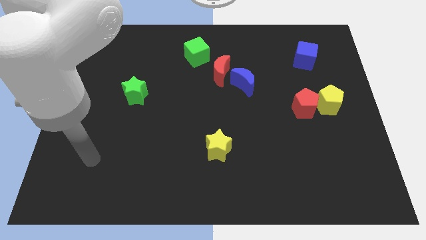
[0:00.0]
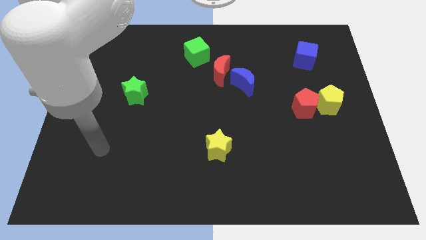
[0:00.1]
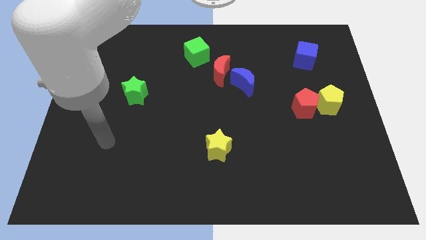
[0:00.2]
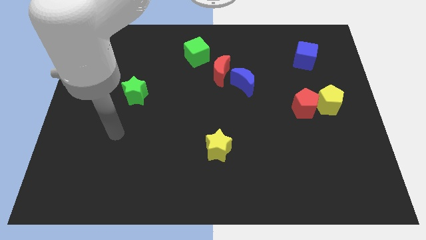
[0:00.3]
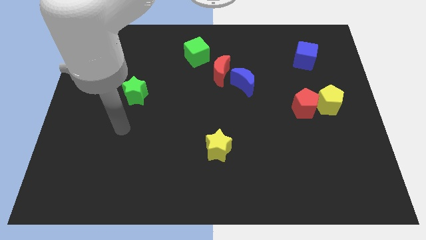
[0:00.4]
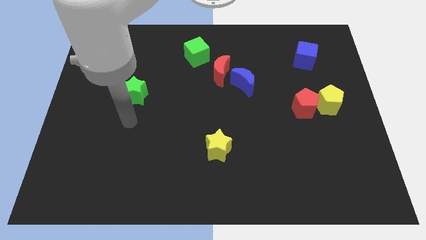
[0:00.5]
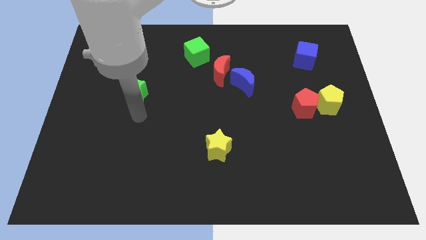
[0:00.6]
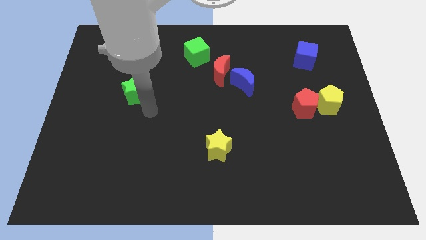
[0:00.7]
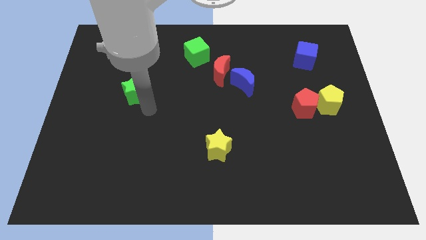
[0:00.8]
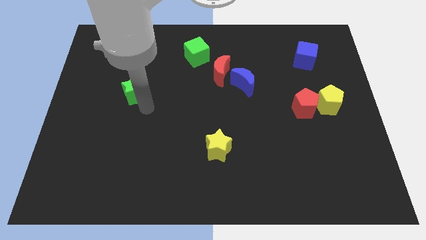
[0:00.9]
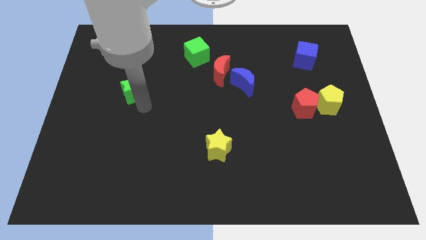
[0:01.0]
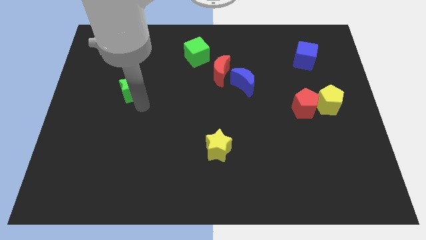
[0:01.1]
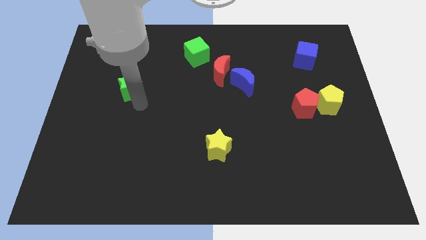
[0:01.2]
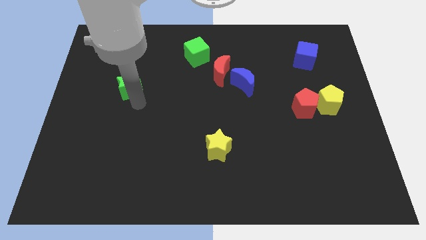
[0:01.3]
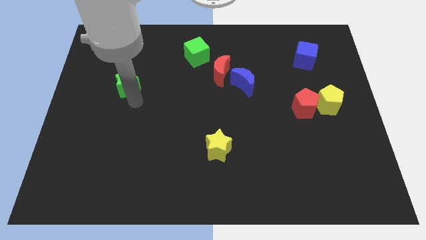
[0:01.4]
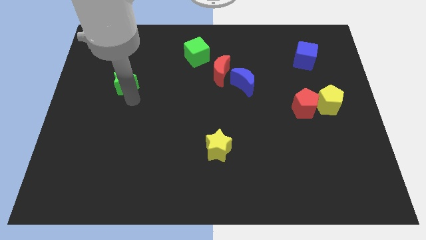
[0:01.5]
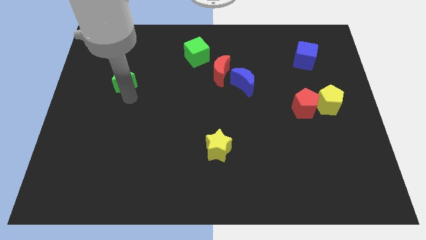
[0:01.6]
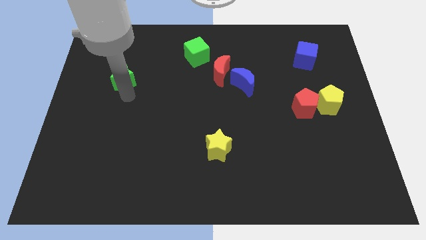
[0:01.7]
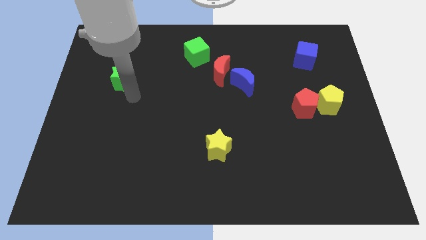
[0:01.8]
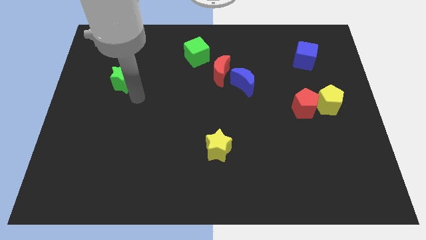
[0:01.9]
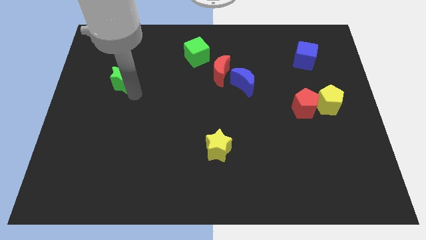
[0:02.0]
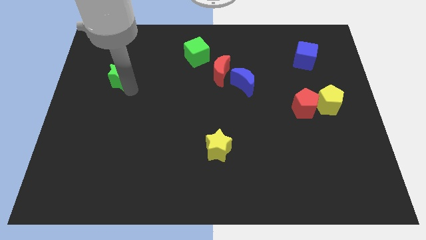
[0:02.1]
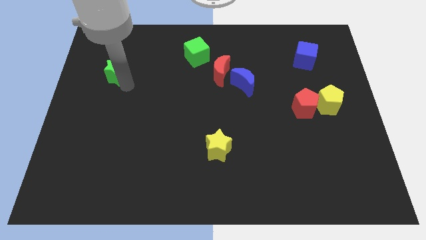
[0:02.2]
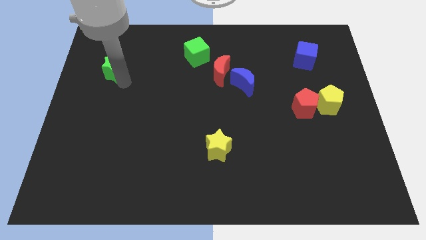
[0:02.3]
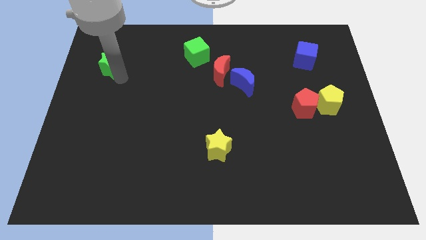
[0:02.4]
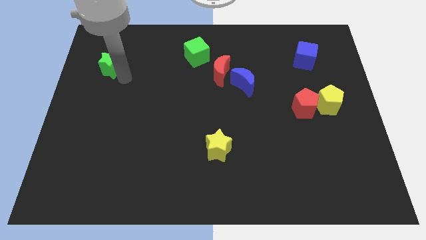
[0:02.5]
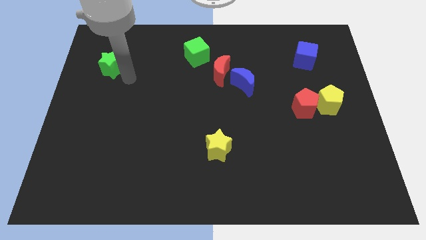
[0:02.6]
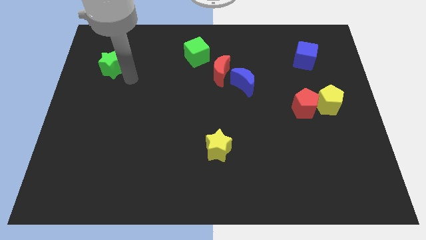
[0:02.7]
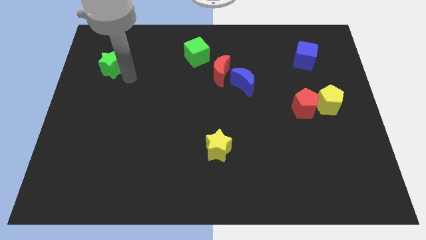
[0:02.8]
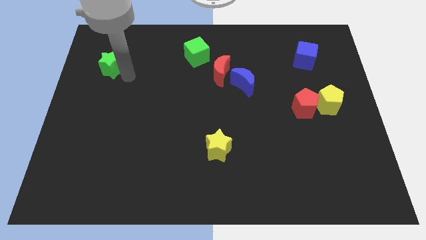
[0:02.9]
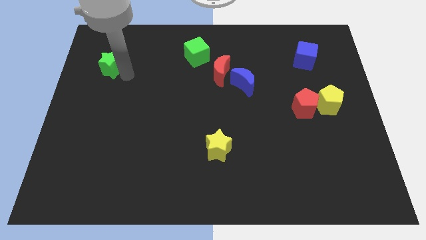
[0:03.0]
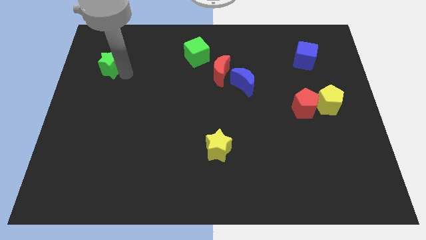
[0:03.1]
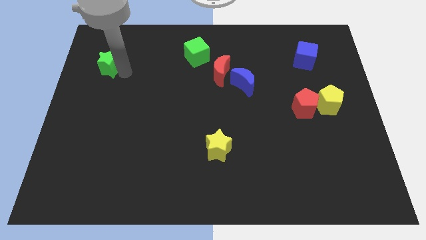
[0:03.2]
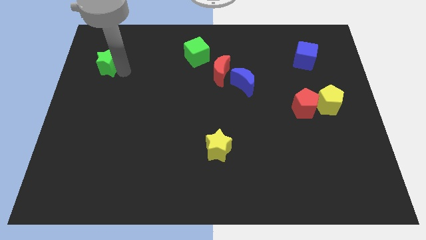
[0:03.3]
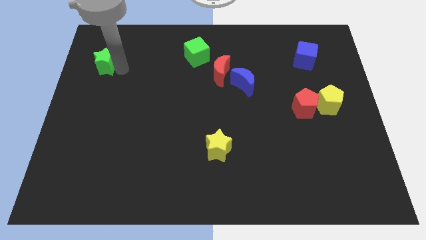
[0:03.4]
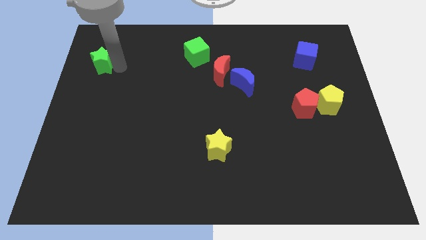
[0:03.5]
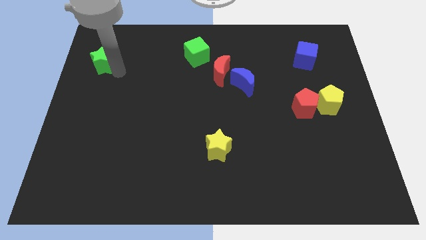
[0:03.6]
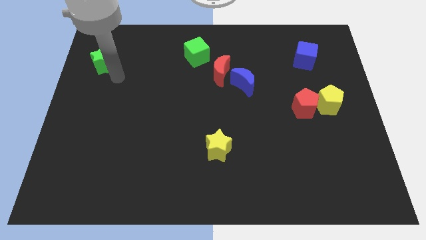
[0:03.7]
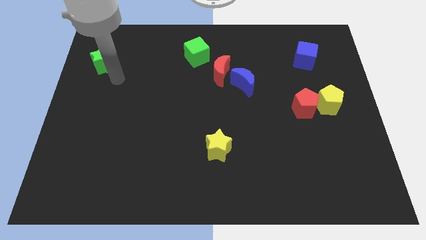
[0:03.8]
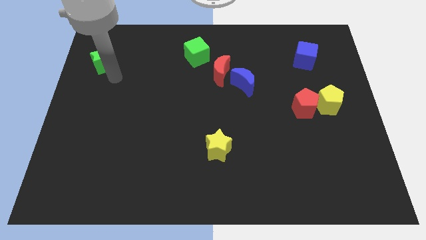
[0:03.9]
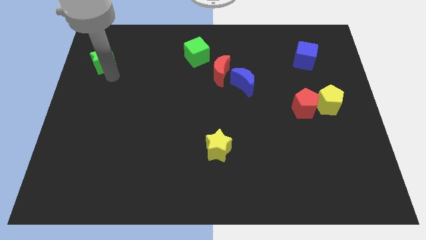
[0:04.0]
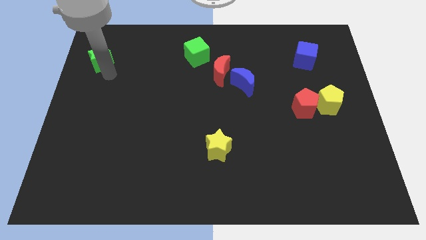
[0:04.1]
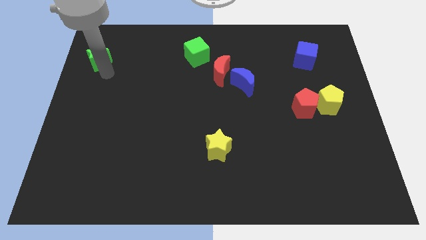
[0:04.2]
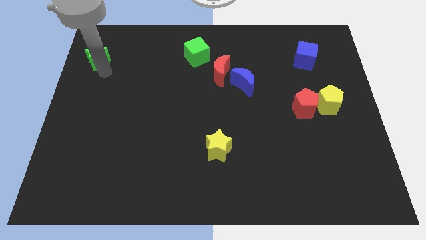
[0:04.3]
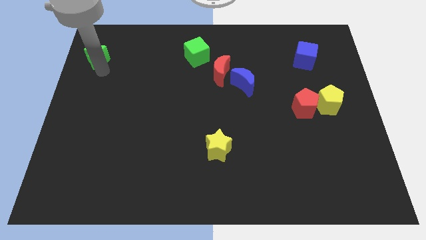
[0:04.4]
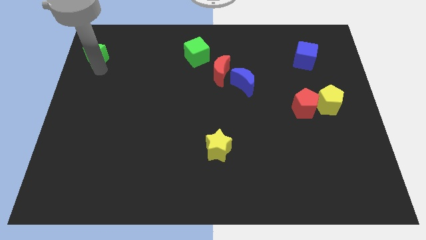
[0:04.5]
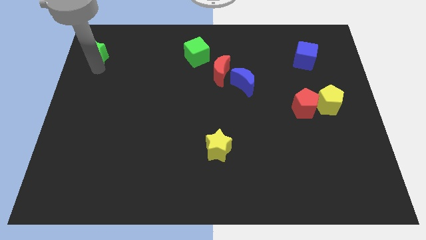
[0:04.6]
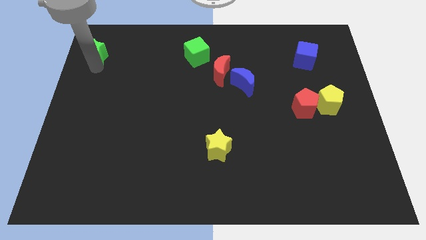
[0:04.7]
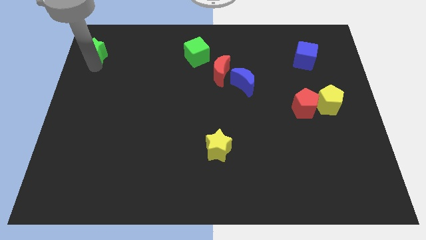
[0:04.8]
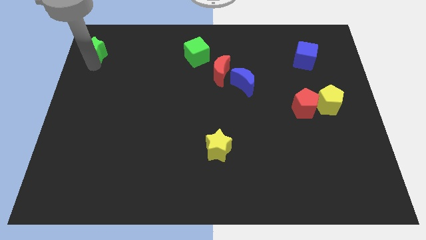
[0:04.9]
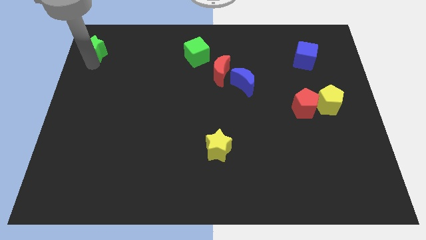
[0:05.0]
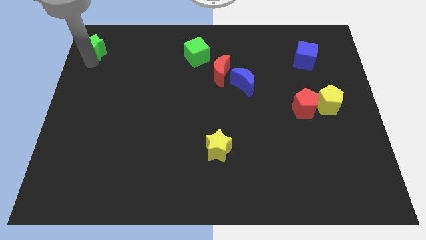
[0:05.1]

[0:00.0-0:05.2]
move the green star to the top left corner

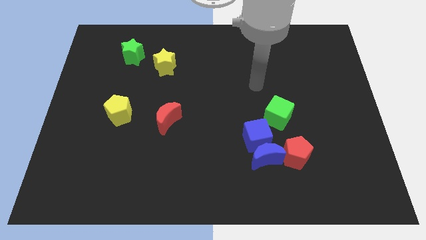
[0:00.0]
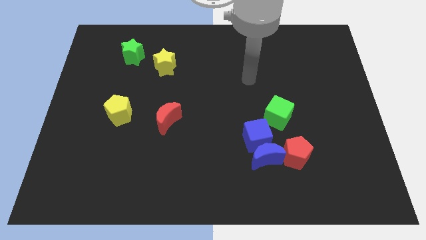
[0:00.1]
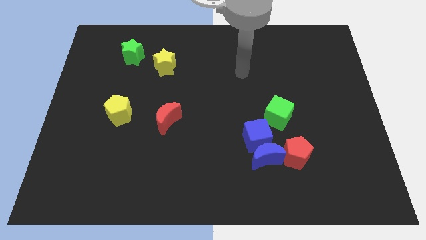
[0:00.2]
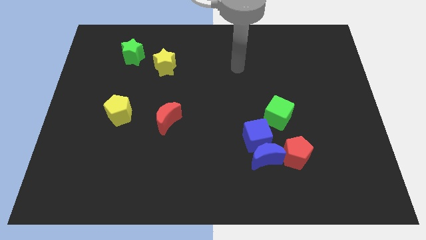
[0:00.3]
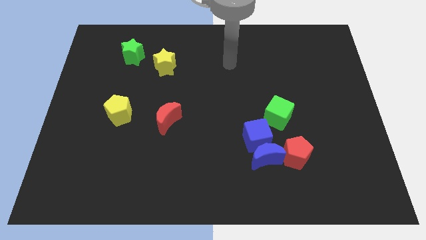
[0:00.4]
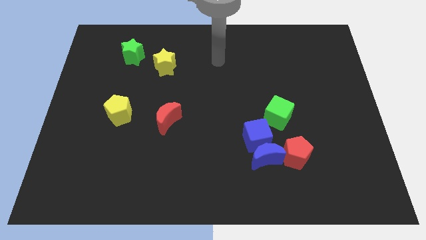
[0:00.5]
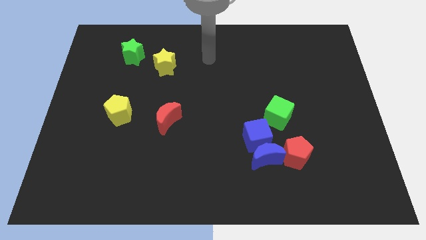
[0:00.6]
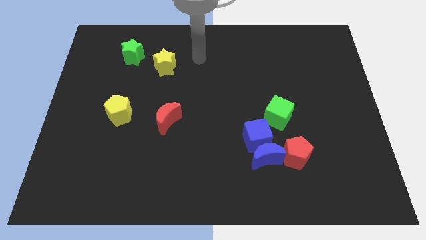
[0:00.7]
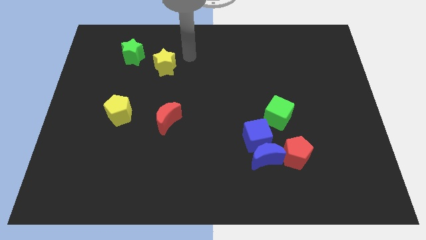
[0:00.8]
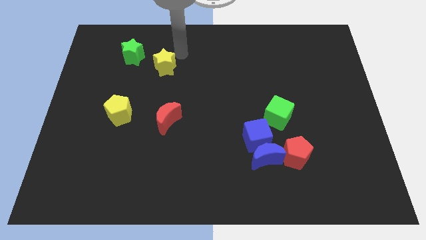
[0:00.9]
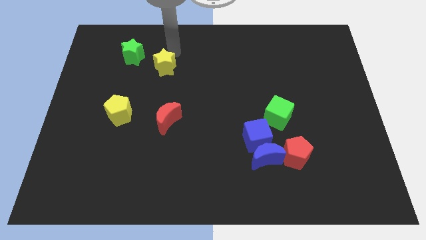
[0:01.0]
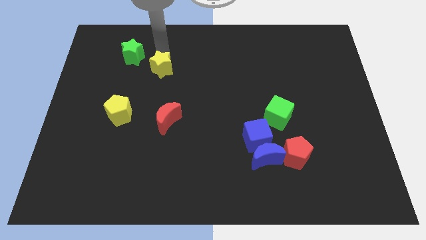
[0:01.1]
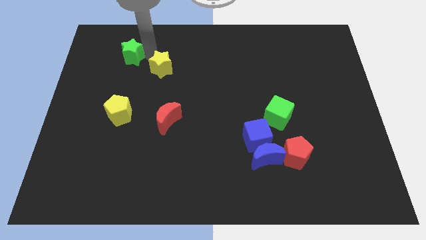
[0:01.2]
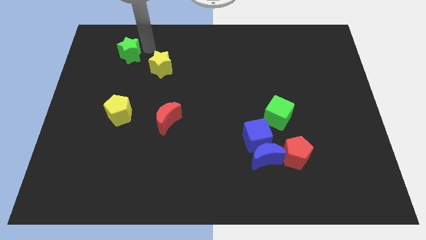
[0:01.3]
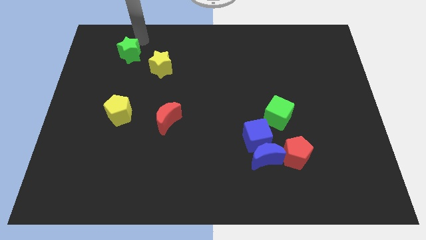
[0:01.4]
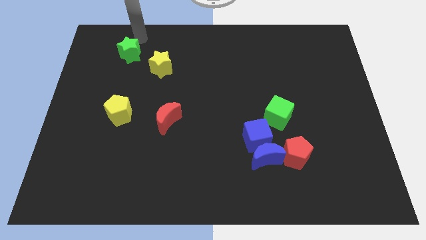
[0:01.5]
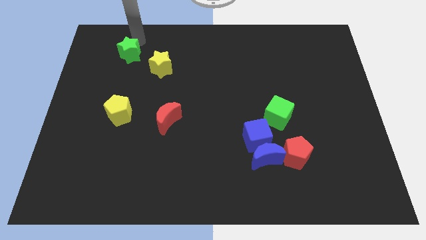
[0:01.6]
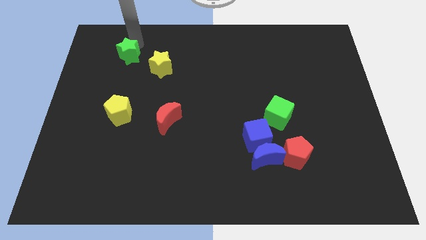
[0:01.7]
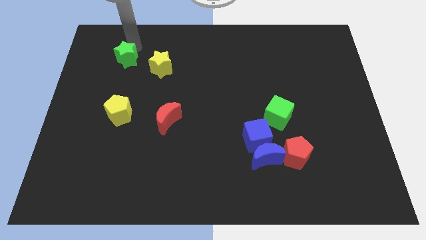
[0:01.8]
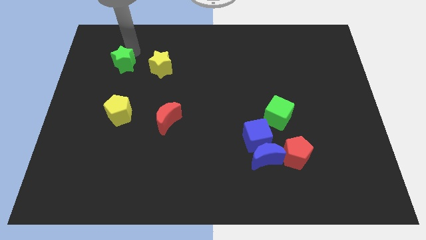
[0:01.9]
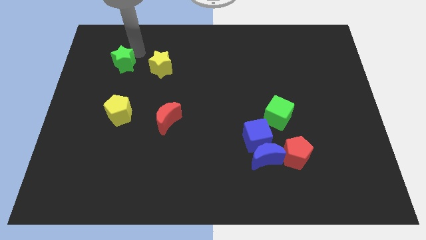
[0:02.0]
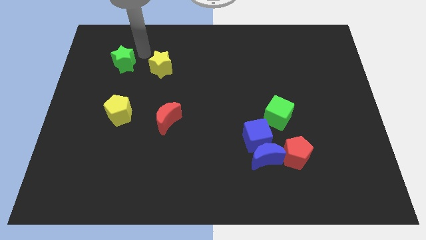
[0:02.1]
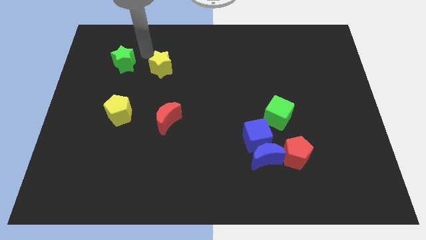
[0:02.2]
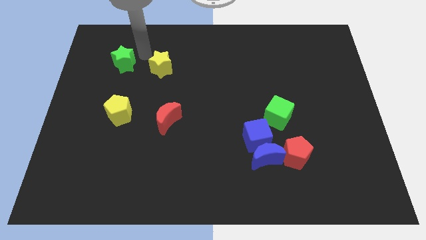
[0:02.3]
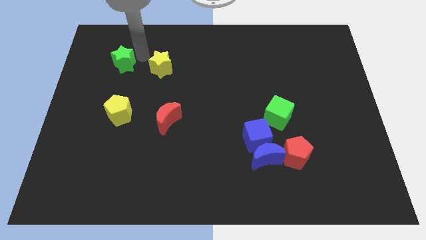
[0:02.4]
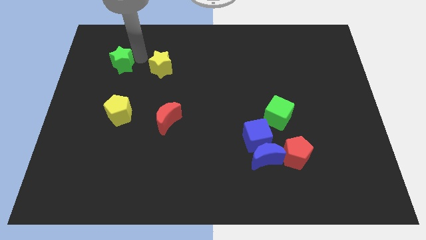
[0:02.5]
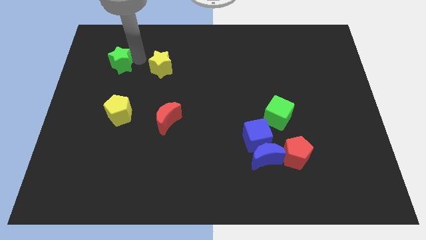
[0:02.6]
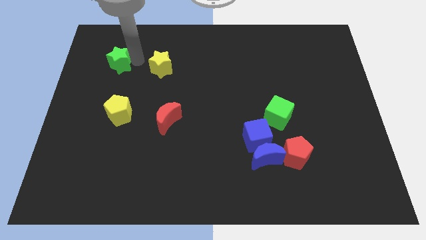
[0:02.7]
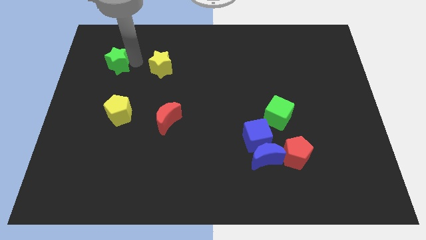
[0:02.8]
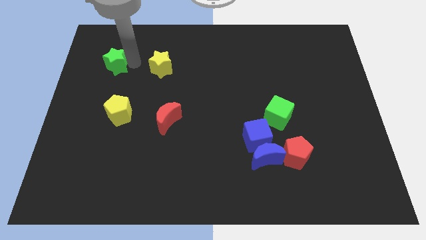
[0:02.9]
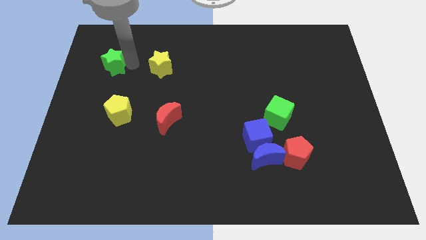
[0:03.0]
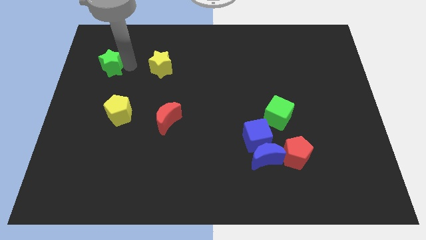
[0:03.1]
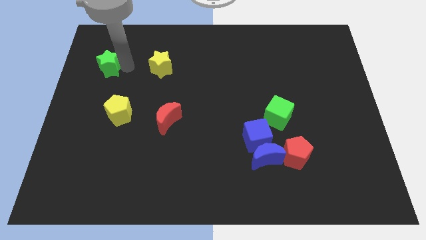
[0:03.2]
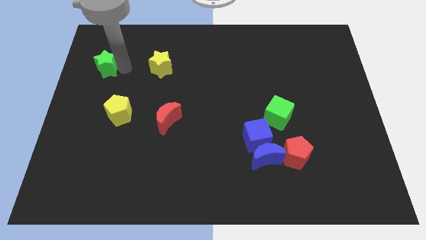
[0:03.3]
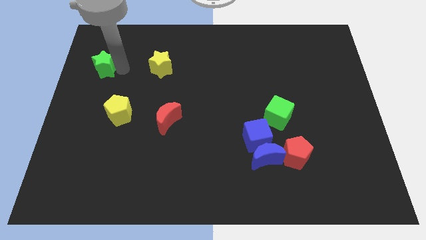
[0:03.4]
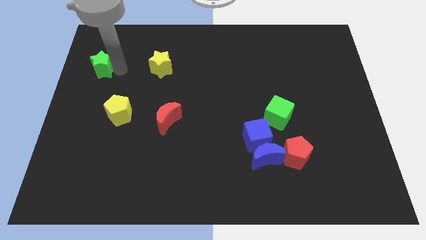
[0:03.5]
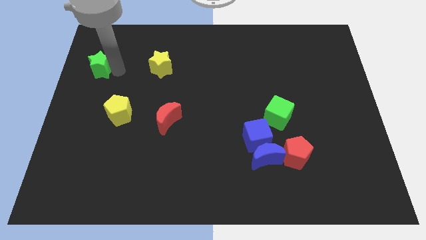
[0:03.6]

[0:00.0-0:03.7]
put the green star to the left side
